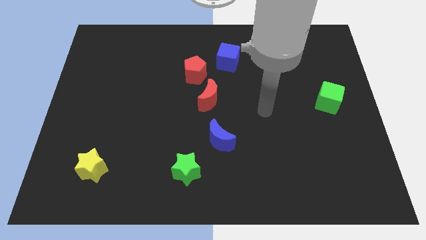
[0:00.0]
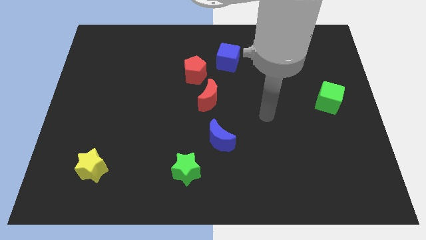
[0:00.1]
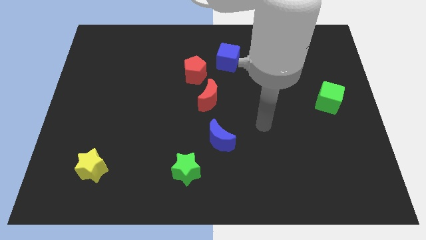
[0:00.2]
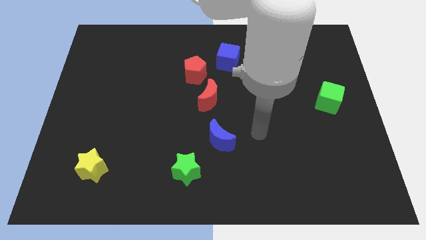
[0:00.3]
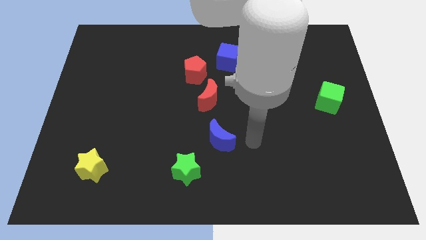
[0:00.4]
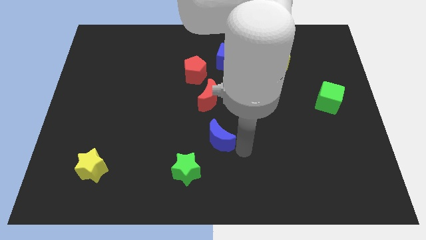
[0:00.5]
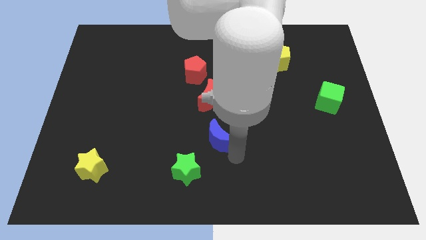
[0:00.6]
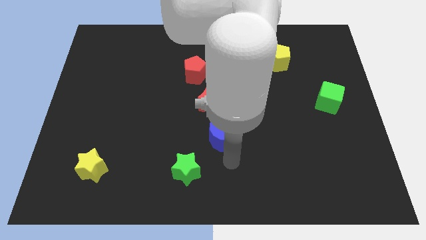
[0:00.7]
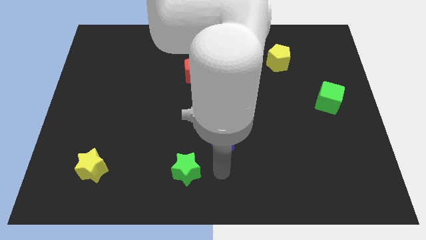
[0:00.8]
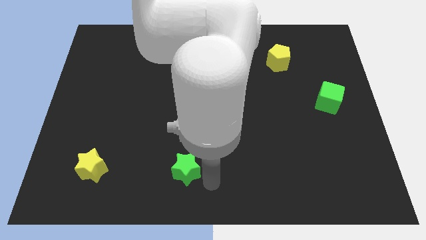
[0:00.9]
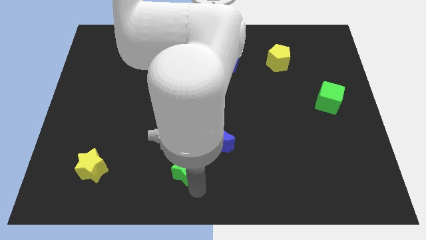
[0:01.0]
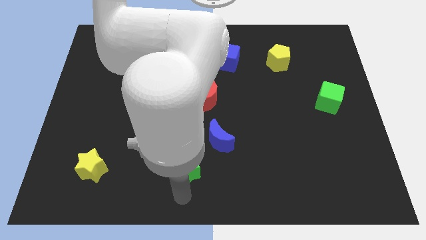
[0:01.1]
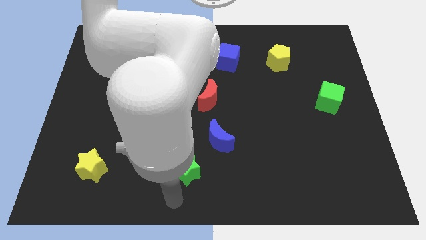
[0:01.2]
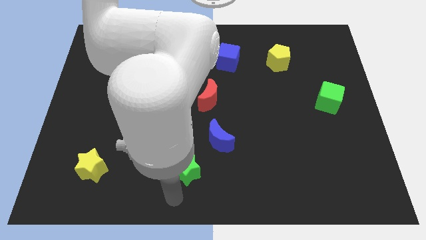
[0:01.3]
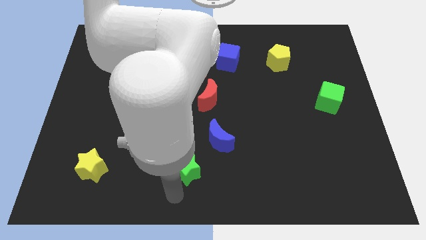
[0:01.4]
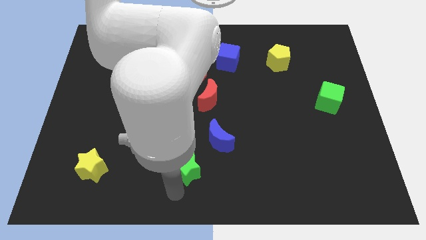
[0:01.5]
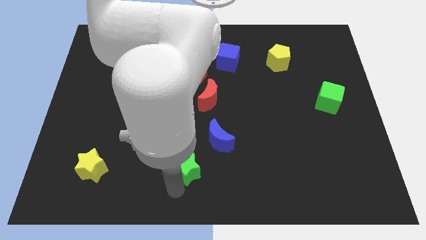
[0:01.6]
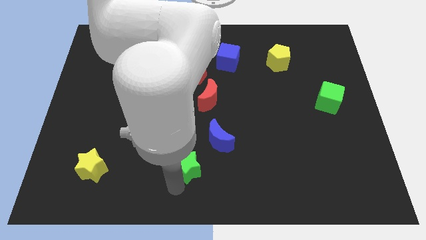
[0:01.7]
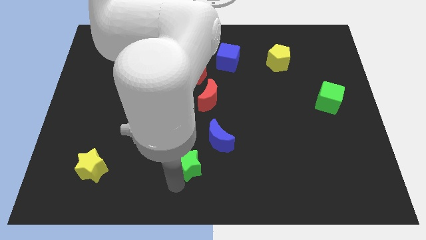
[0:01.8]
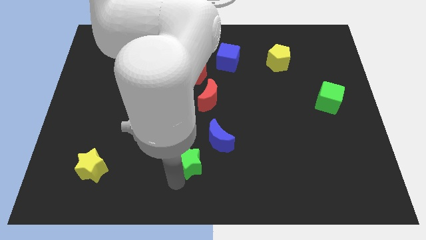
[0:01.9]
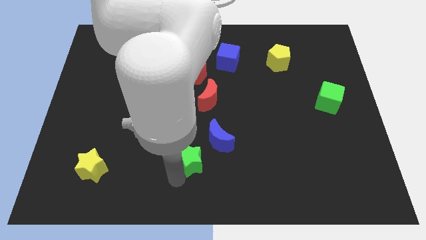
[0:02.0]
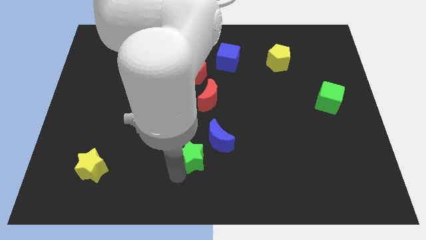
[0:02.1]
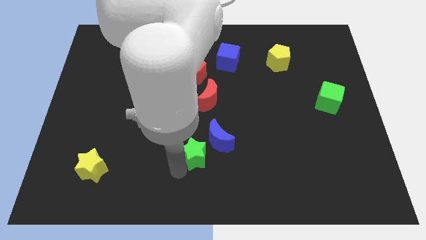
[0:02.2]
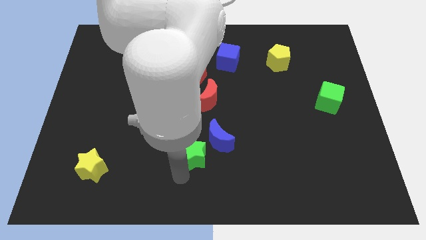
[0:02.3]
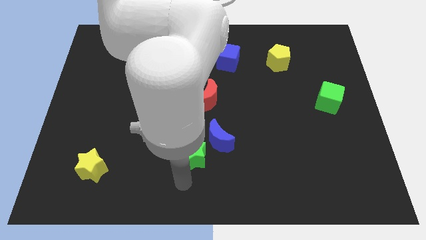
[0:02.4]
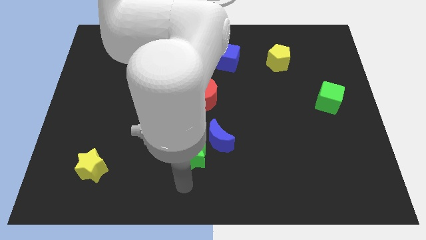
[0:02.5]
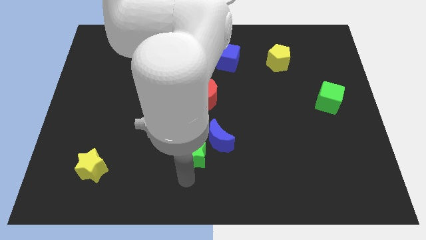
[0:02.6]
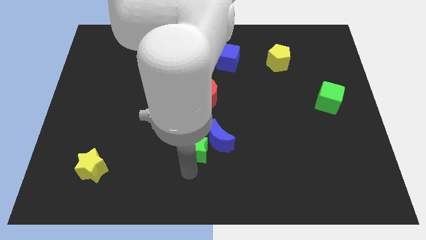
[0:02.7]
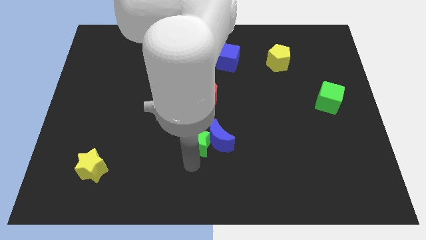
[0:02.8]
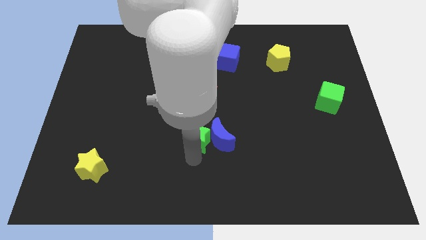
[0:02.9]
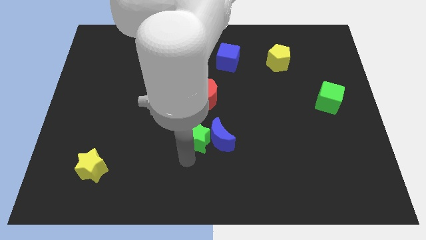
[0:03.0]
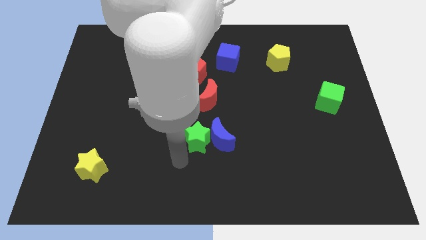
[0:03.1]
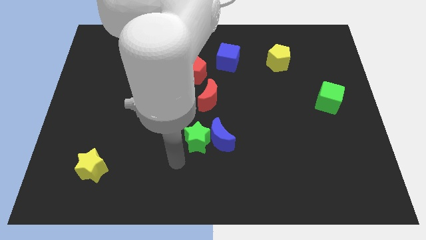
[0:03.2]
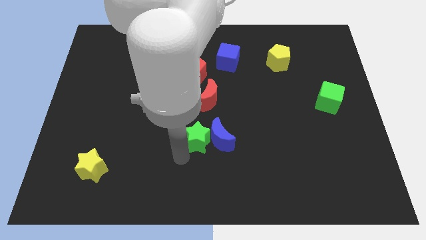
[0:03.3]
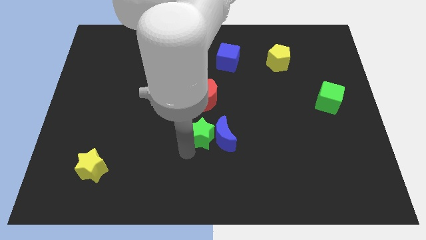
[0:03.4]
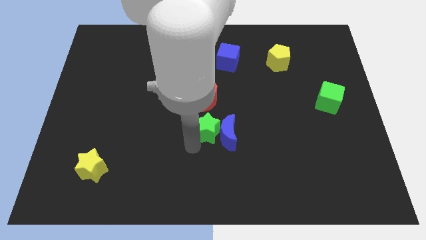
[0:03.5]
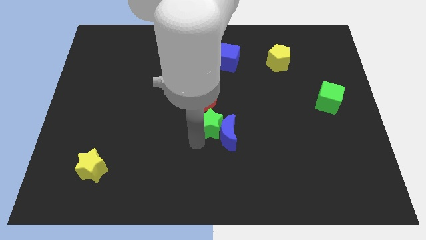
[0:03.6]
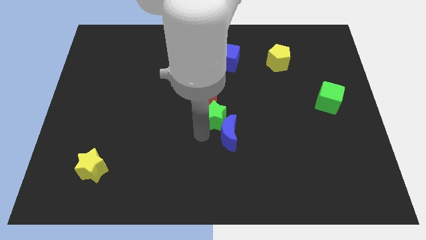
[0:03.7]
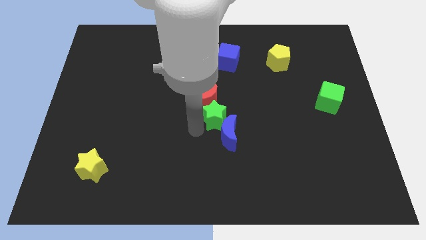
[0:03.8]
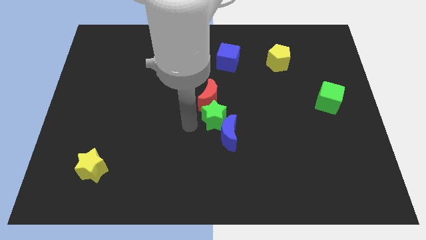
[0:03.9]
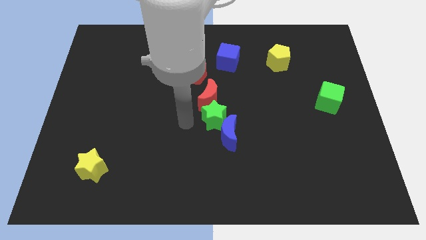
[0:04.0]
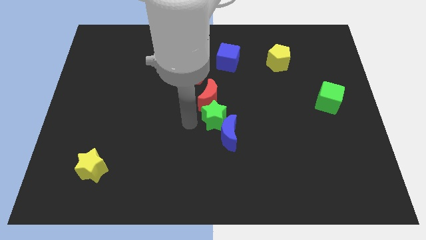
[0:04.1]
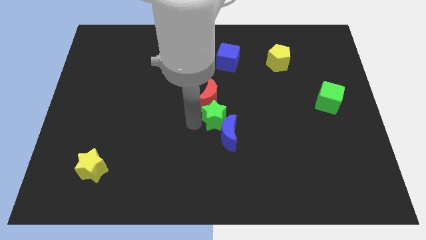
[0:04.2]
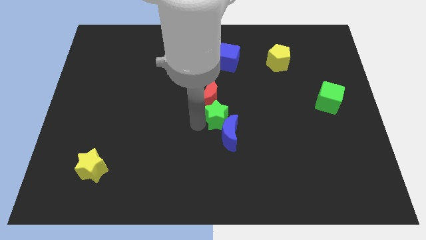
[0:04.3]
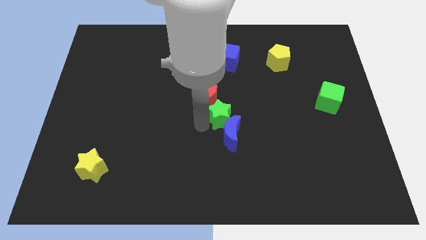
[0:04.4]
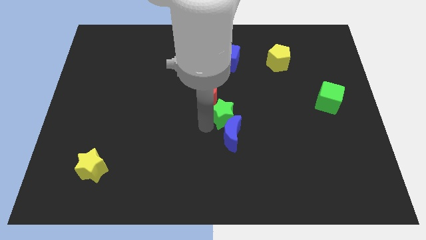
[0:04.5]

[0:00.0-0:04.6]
move the green star diagonally up and to the right of the blue moon

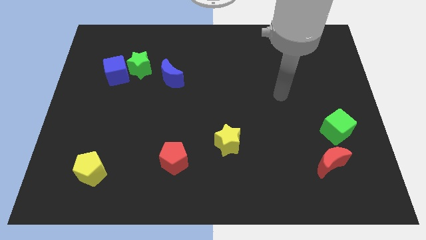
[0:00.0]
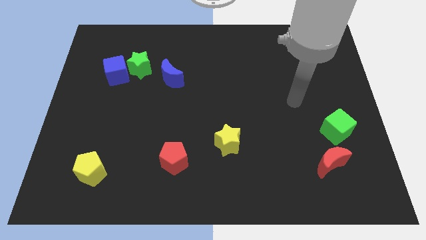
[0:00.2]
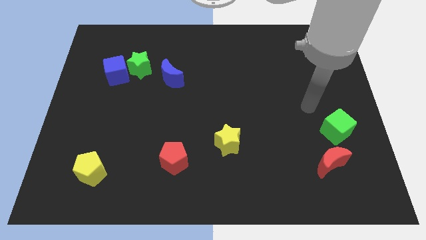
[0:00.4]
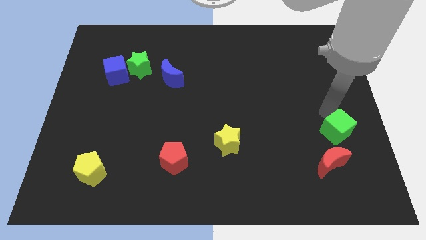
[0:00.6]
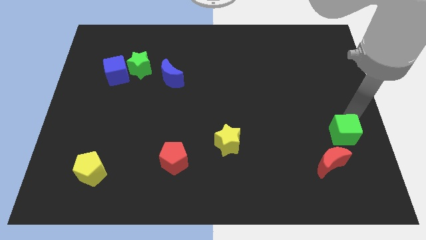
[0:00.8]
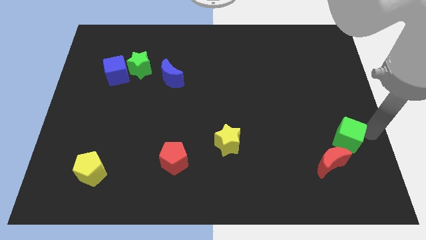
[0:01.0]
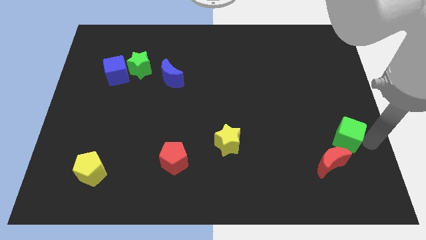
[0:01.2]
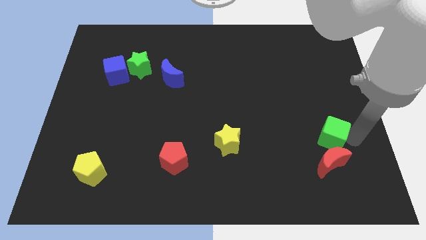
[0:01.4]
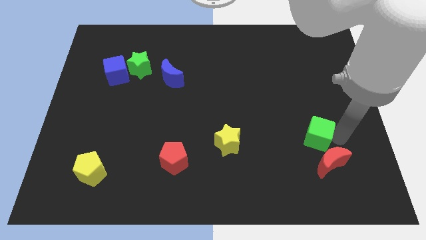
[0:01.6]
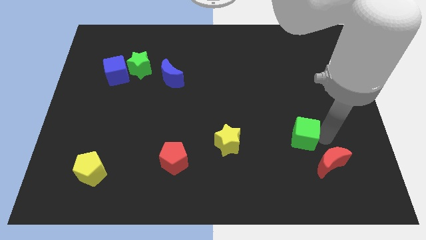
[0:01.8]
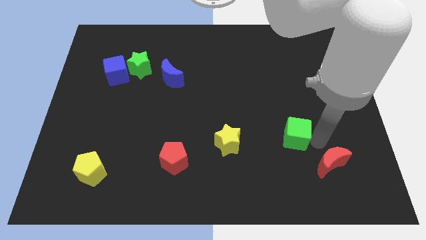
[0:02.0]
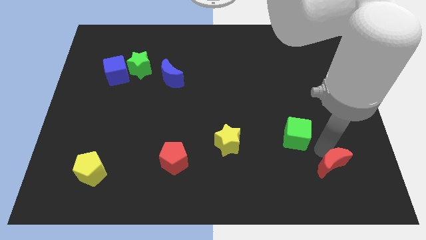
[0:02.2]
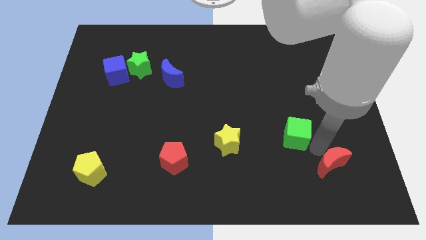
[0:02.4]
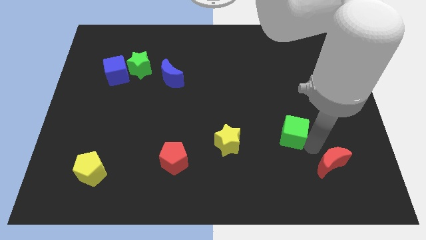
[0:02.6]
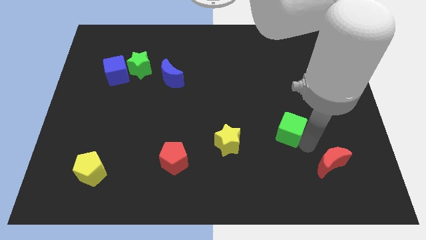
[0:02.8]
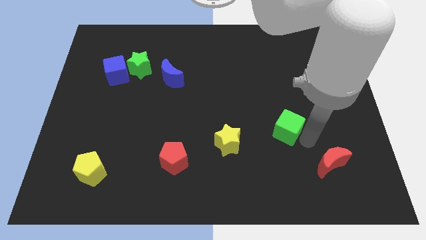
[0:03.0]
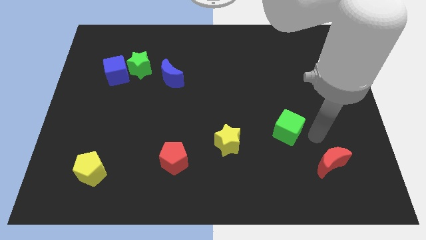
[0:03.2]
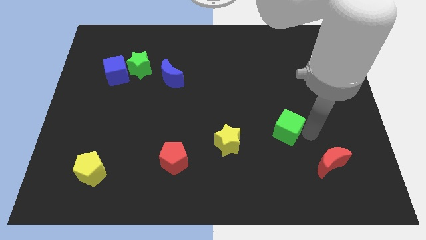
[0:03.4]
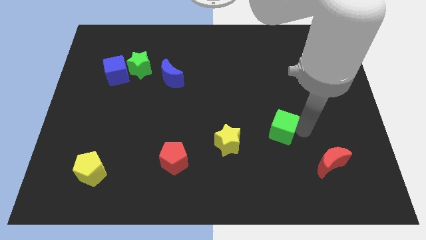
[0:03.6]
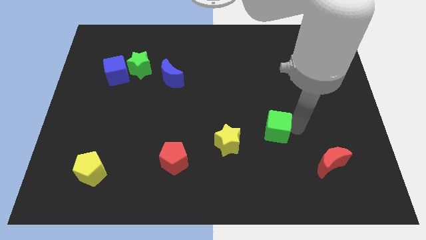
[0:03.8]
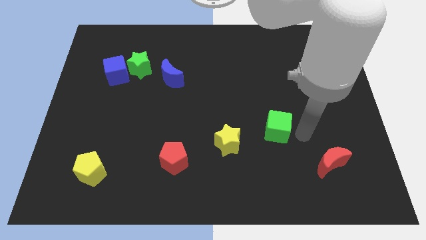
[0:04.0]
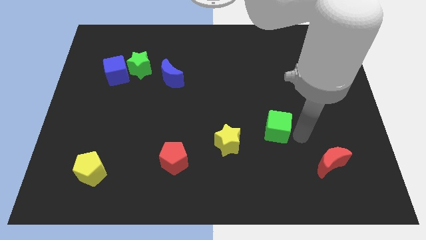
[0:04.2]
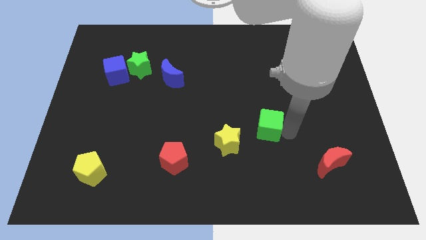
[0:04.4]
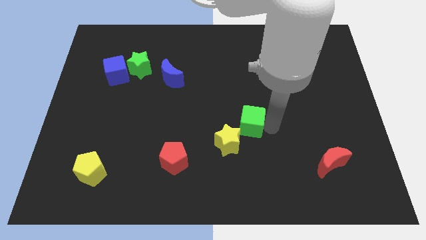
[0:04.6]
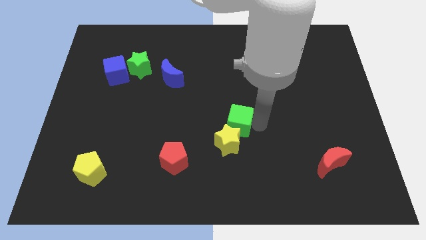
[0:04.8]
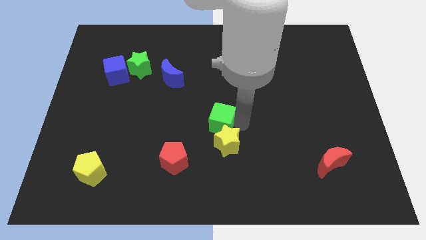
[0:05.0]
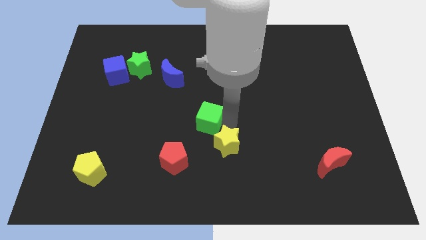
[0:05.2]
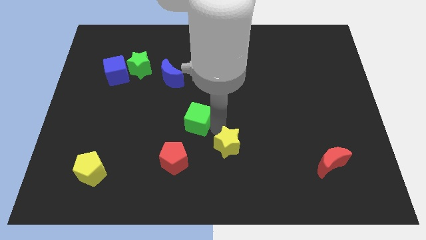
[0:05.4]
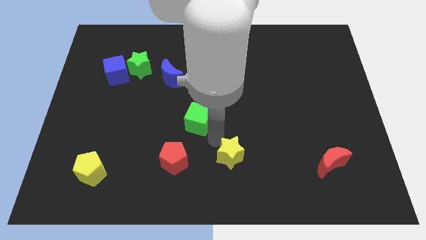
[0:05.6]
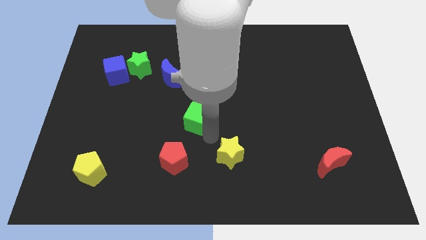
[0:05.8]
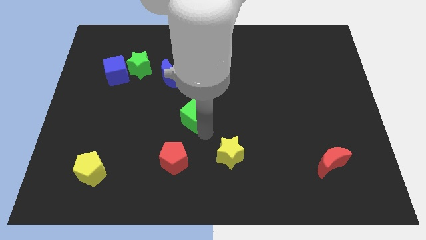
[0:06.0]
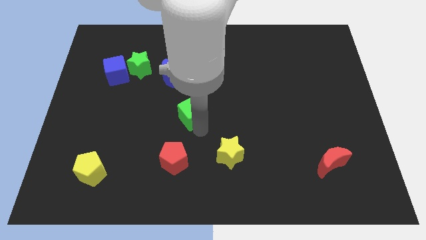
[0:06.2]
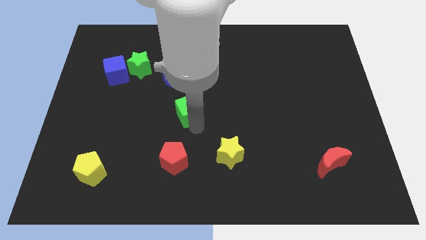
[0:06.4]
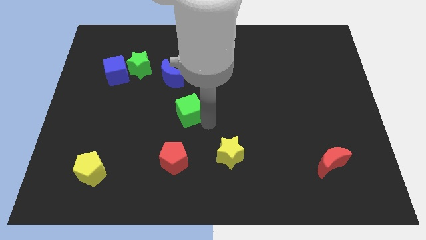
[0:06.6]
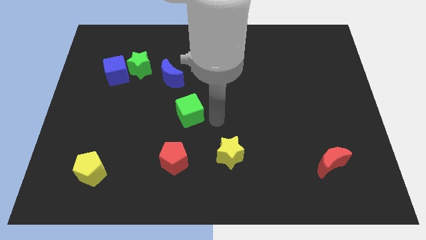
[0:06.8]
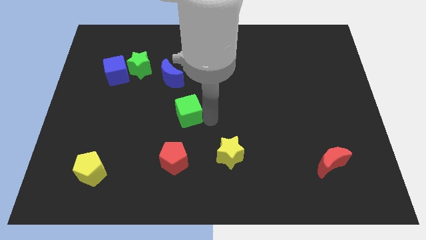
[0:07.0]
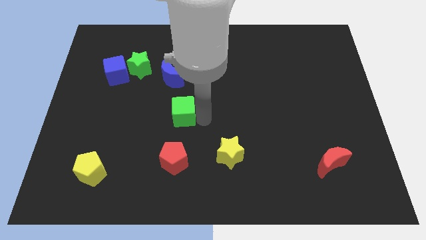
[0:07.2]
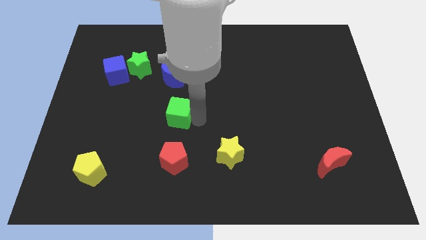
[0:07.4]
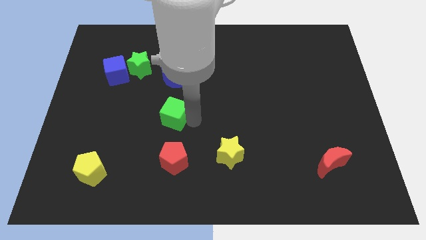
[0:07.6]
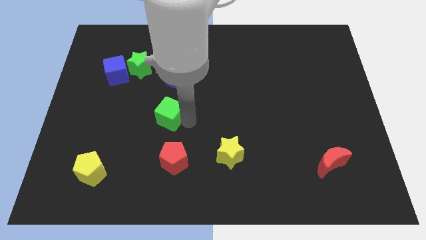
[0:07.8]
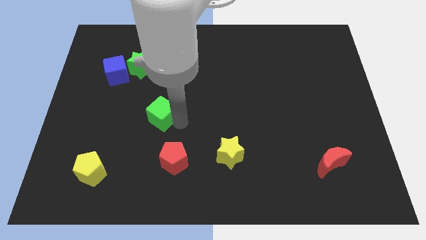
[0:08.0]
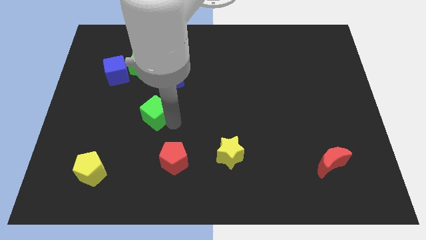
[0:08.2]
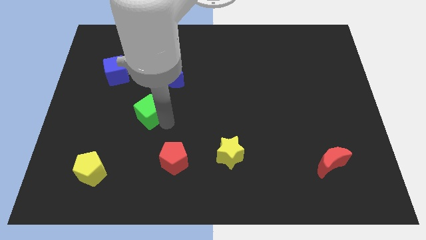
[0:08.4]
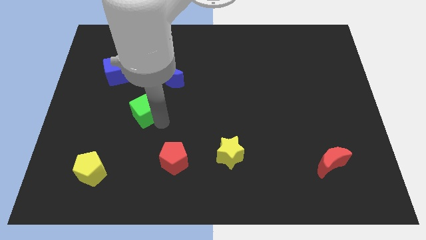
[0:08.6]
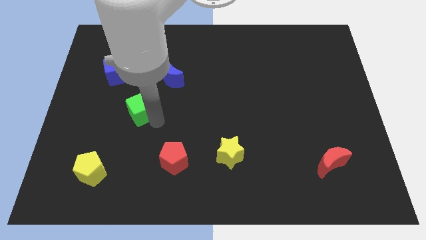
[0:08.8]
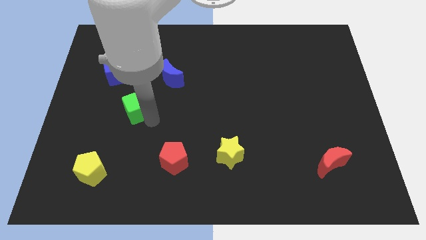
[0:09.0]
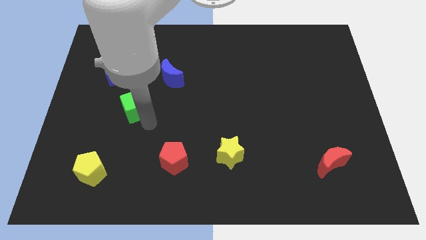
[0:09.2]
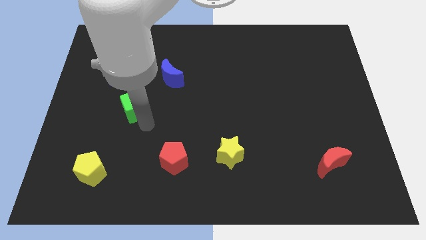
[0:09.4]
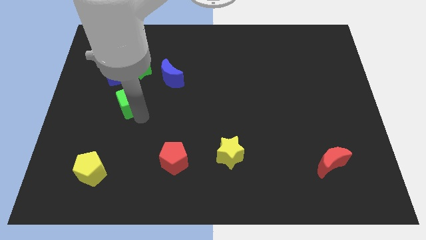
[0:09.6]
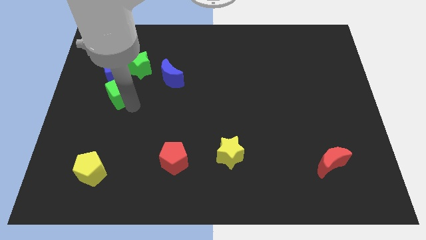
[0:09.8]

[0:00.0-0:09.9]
push the green cube diagonally down and to the left of the green star
